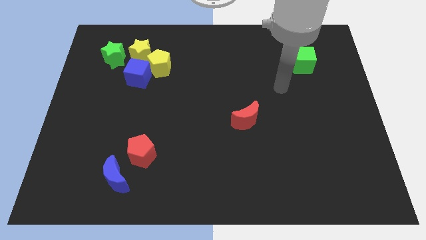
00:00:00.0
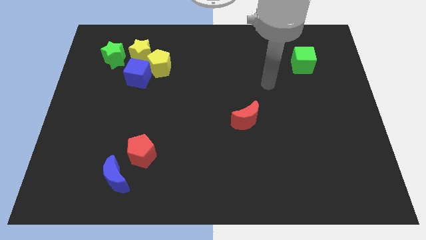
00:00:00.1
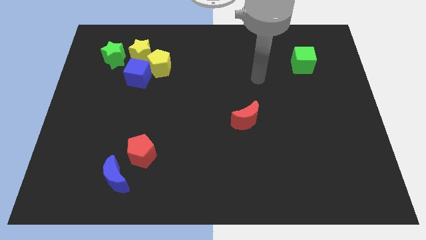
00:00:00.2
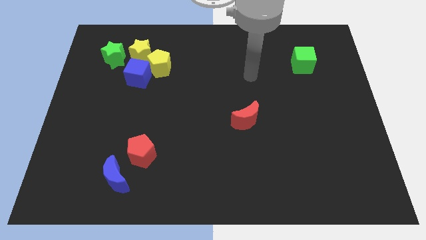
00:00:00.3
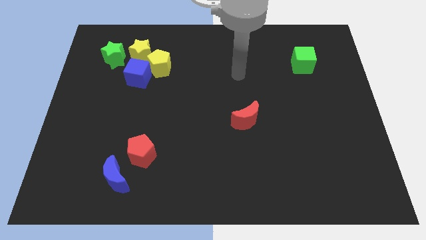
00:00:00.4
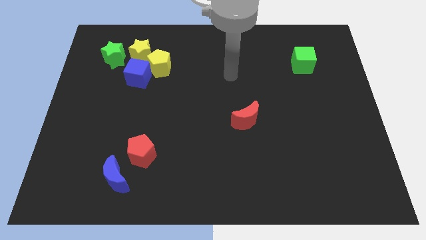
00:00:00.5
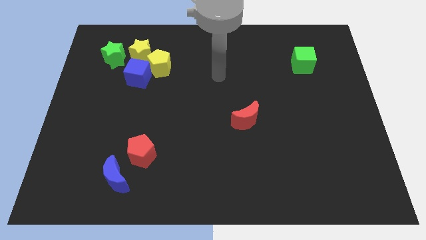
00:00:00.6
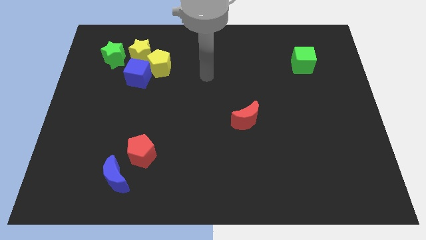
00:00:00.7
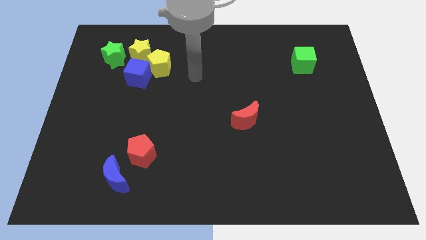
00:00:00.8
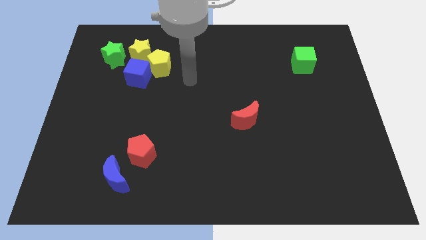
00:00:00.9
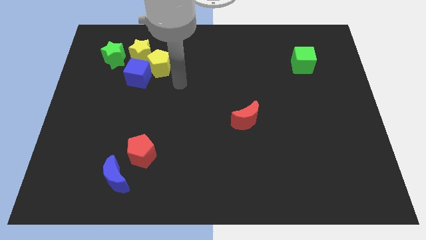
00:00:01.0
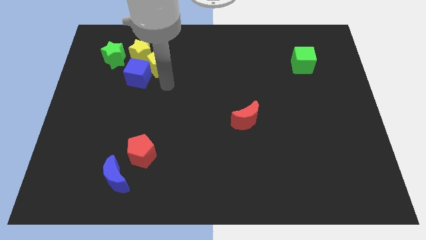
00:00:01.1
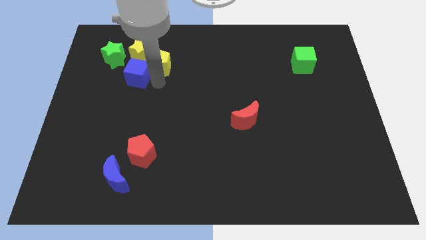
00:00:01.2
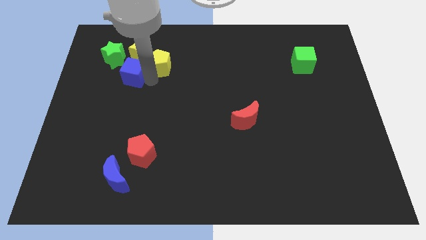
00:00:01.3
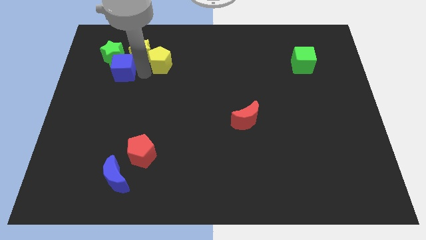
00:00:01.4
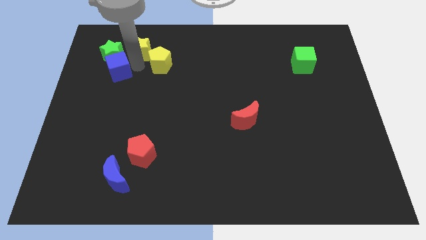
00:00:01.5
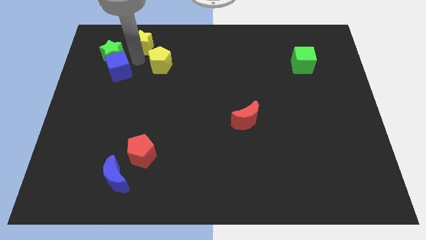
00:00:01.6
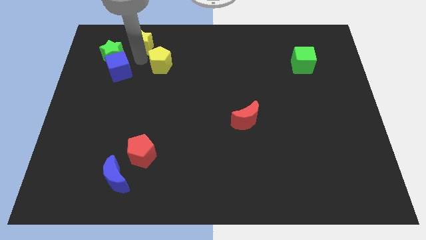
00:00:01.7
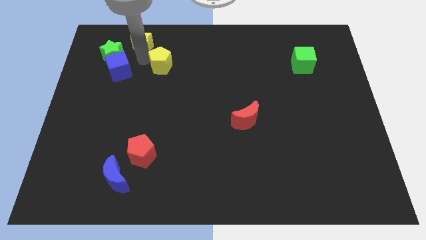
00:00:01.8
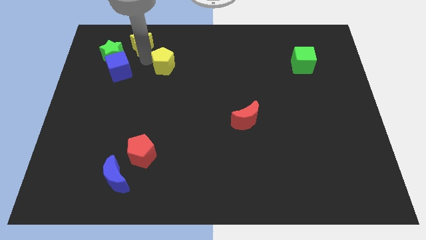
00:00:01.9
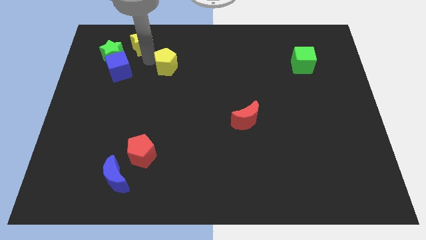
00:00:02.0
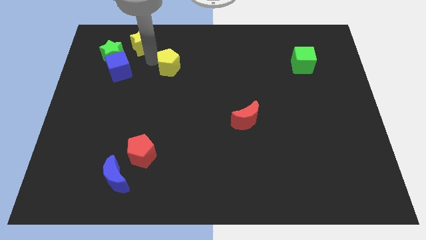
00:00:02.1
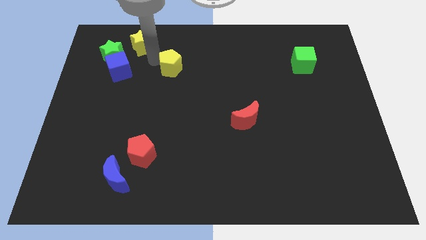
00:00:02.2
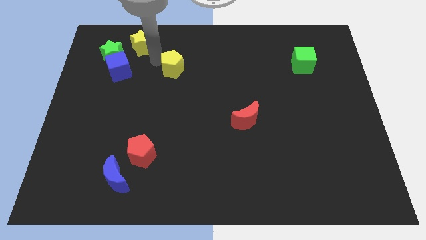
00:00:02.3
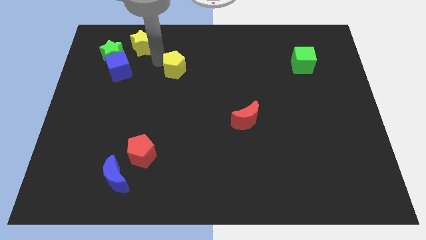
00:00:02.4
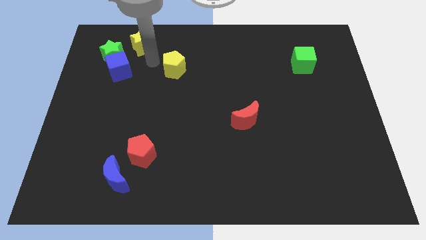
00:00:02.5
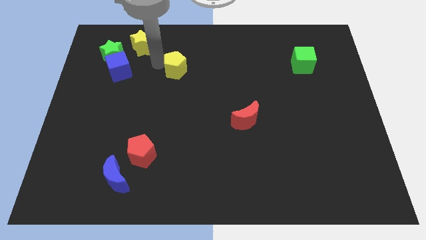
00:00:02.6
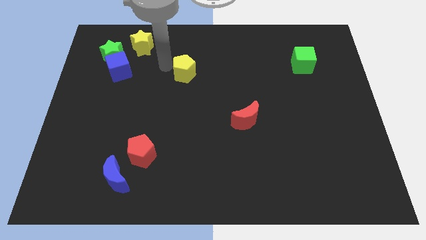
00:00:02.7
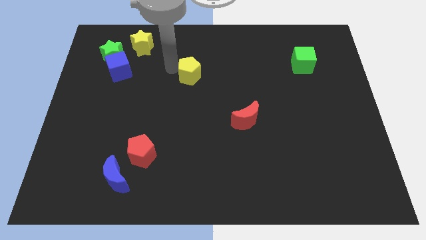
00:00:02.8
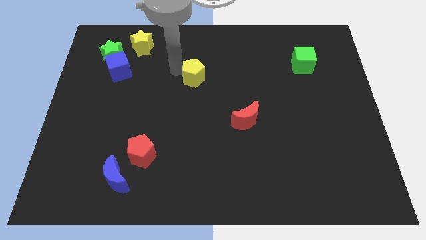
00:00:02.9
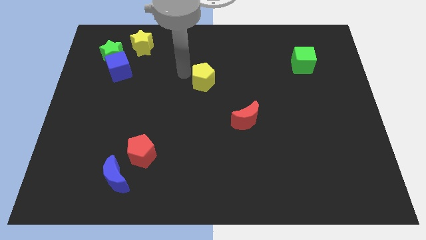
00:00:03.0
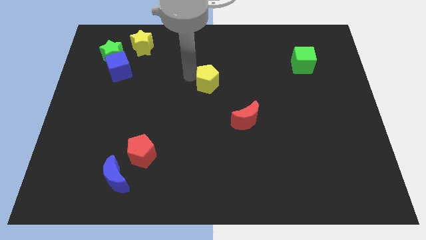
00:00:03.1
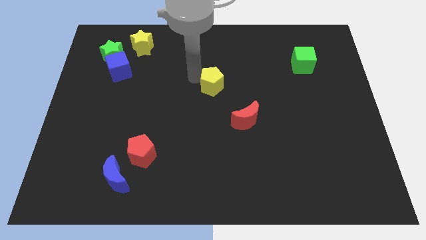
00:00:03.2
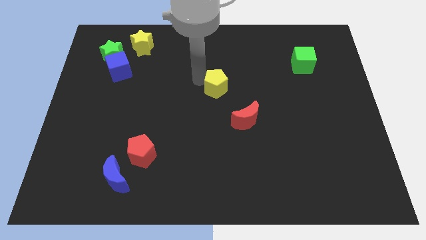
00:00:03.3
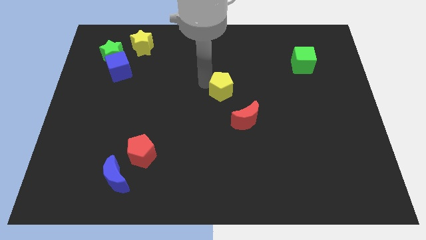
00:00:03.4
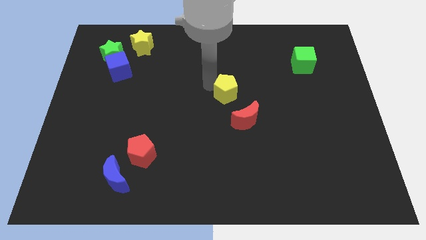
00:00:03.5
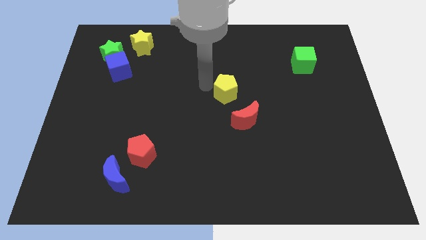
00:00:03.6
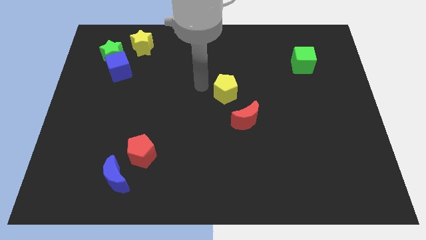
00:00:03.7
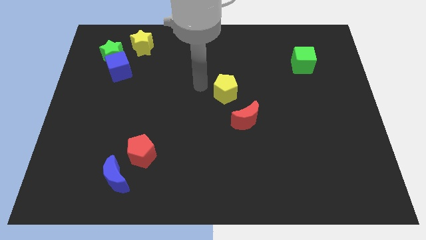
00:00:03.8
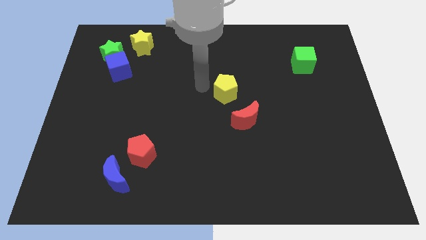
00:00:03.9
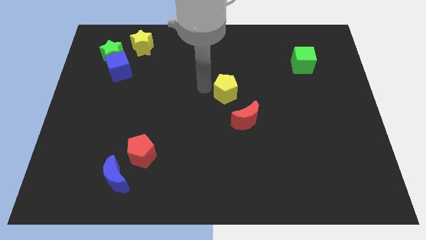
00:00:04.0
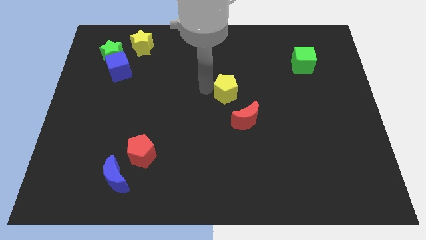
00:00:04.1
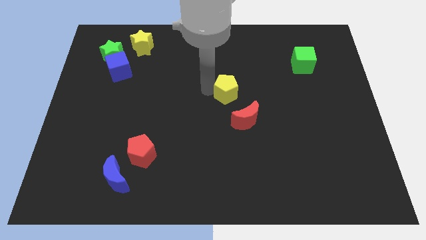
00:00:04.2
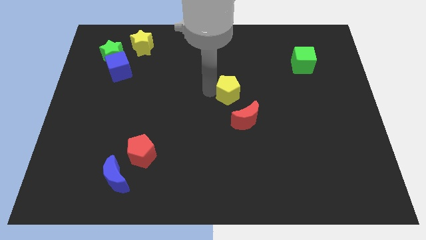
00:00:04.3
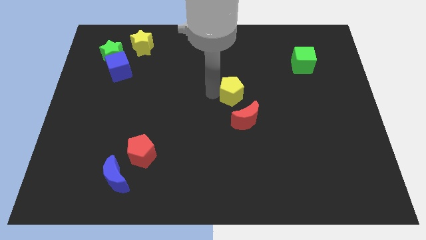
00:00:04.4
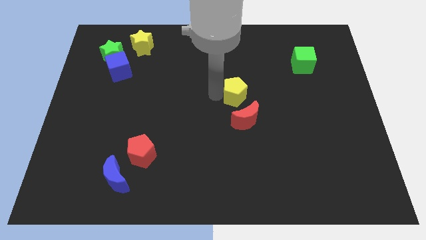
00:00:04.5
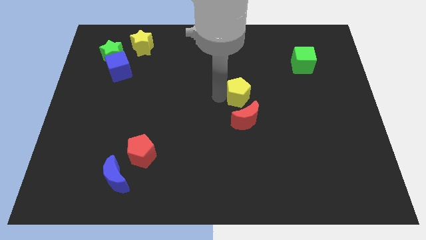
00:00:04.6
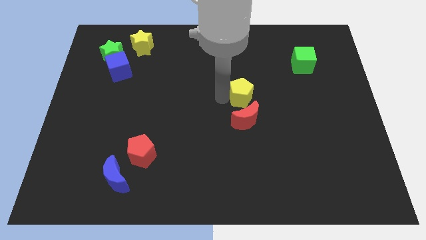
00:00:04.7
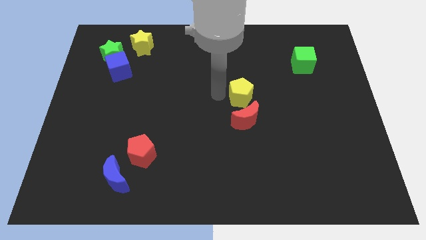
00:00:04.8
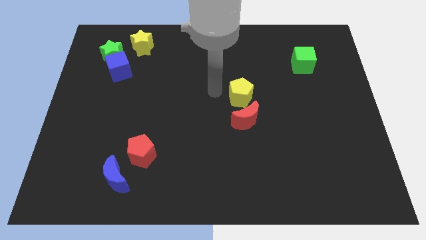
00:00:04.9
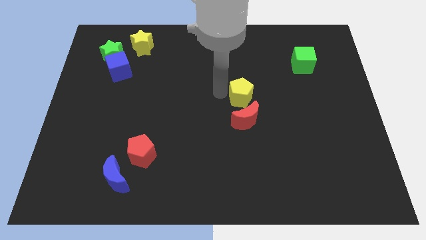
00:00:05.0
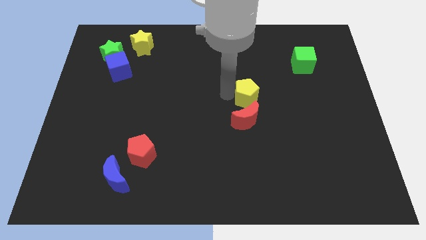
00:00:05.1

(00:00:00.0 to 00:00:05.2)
move the yellow pentagon diagonally up and to the right of the red moon

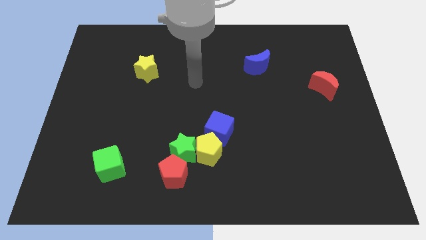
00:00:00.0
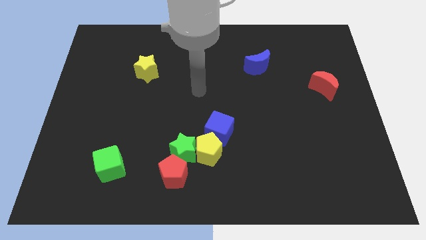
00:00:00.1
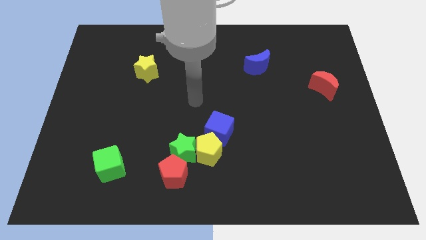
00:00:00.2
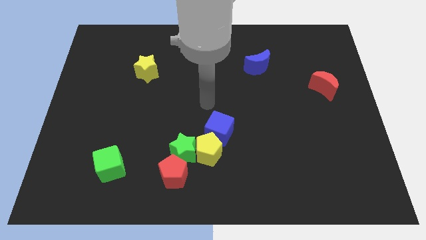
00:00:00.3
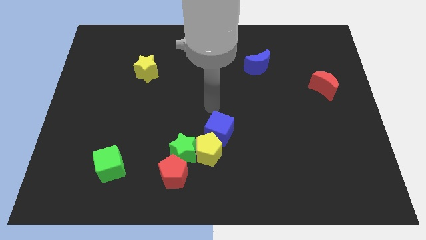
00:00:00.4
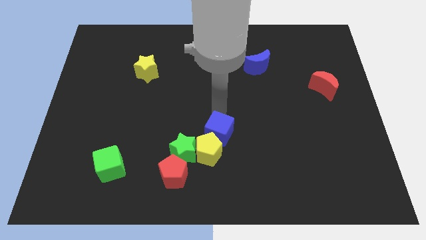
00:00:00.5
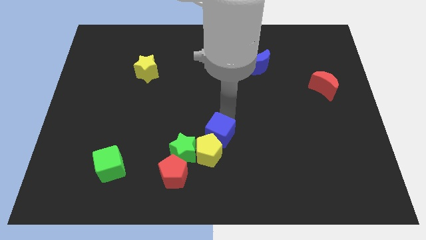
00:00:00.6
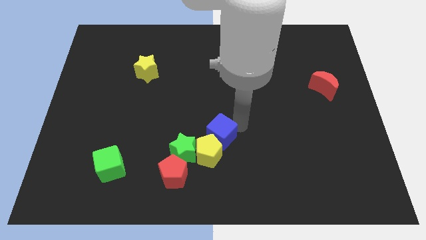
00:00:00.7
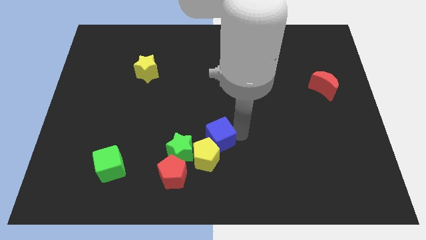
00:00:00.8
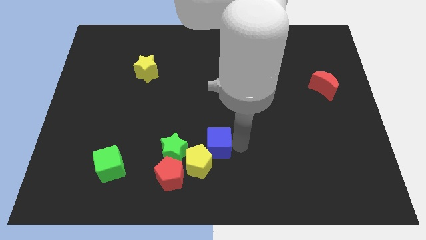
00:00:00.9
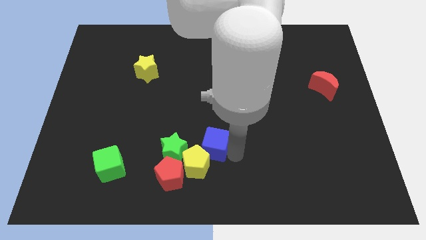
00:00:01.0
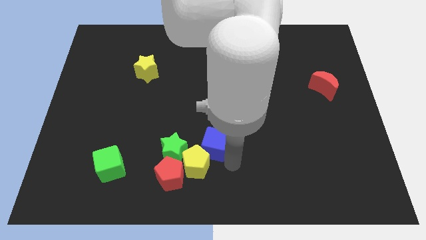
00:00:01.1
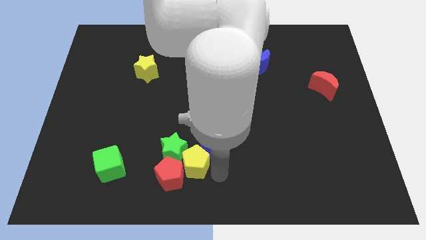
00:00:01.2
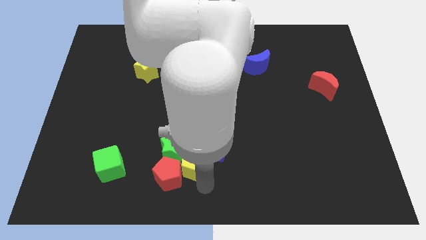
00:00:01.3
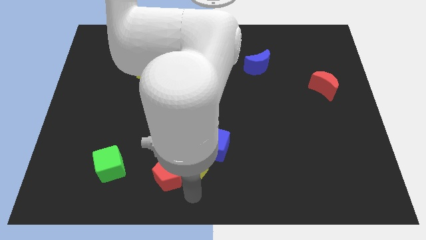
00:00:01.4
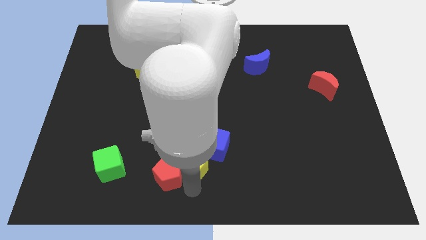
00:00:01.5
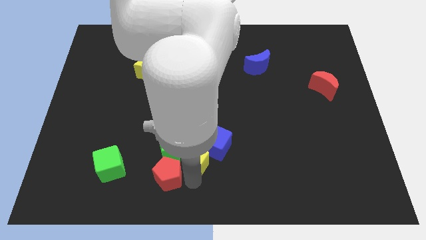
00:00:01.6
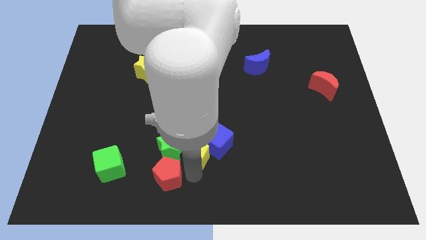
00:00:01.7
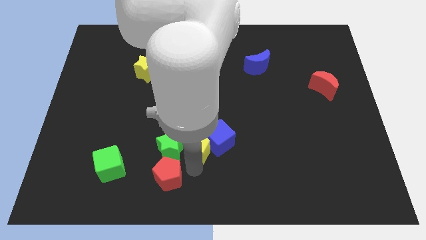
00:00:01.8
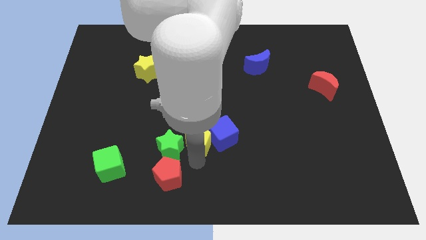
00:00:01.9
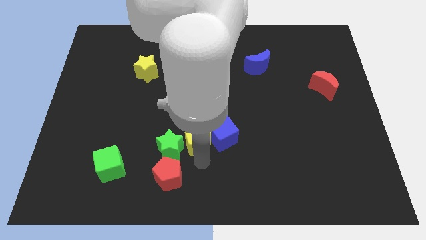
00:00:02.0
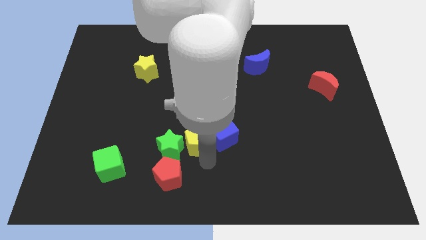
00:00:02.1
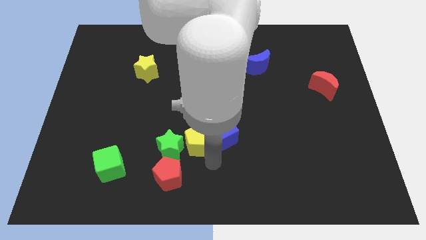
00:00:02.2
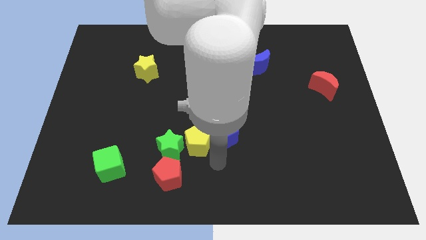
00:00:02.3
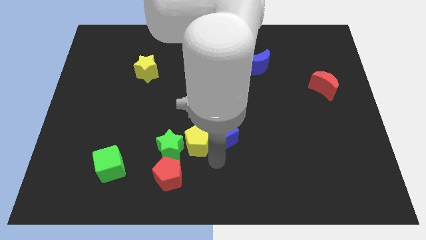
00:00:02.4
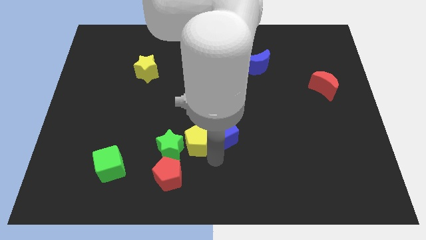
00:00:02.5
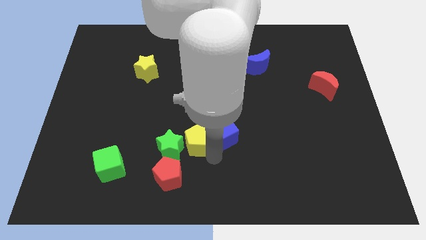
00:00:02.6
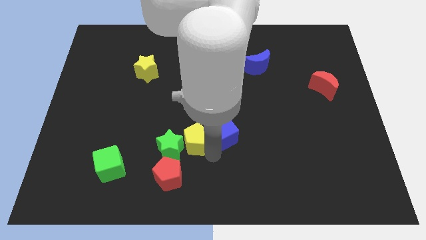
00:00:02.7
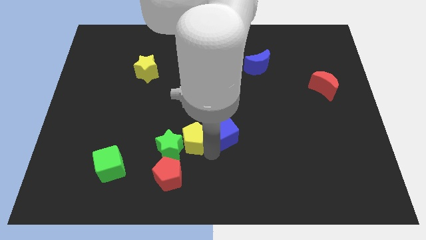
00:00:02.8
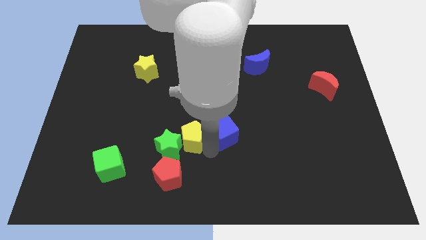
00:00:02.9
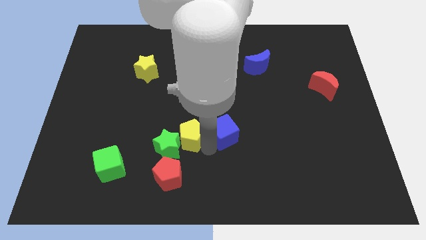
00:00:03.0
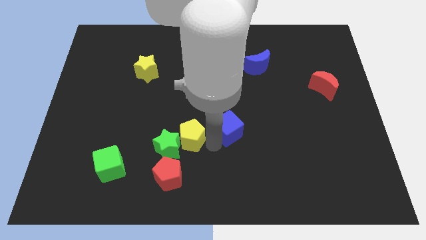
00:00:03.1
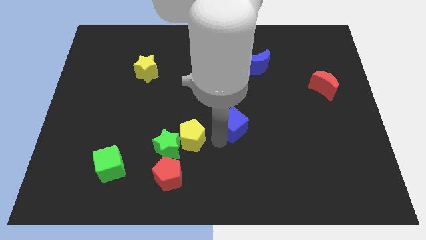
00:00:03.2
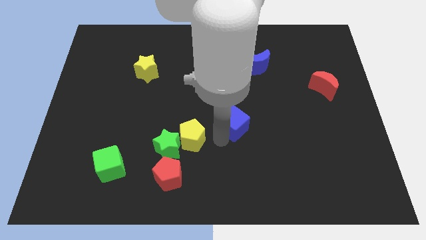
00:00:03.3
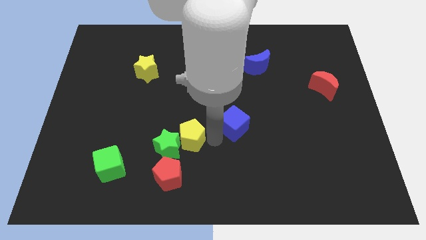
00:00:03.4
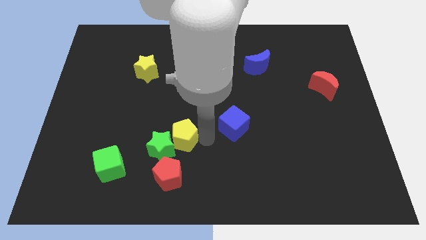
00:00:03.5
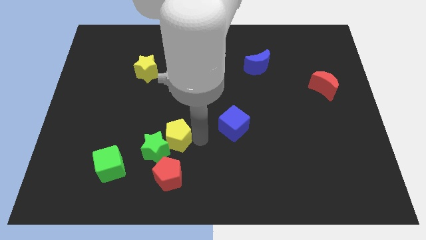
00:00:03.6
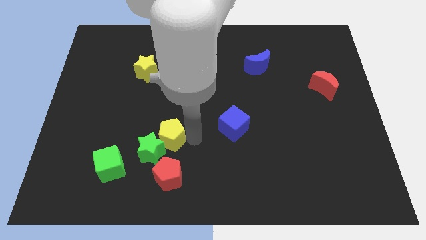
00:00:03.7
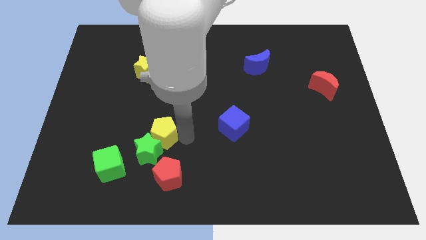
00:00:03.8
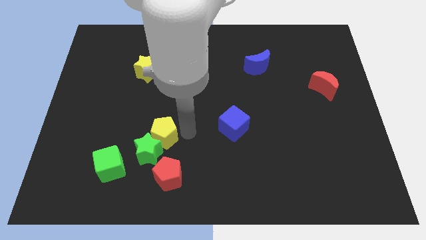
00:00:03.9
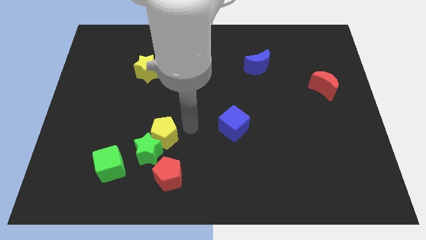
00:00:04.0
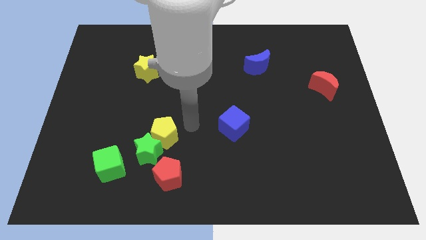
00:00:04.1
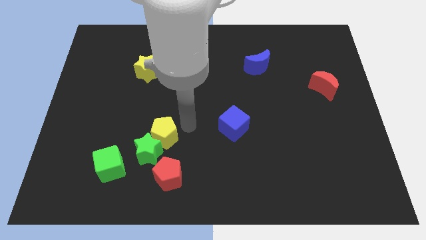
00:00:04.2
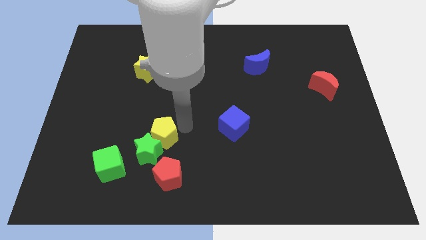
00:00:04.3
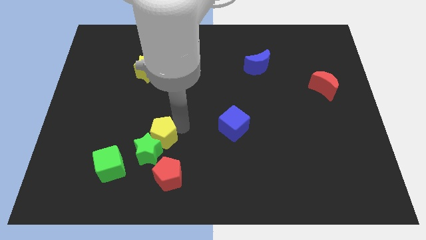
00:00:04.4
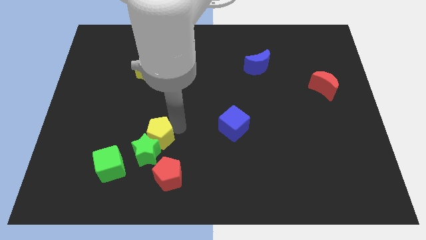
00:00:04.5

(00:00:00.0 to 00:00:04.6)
move the yellow pentagon to the top right side of the green cube
